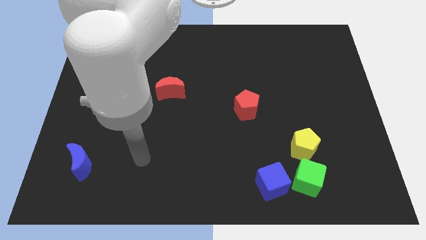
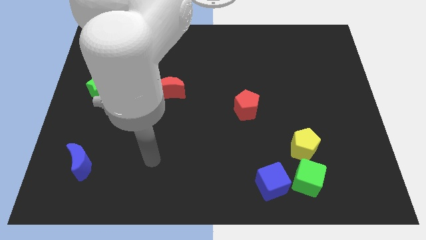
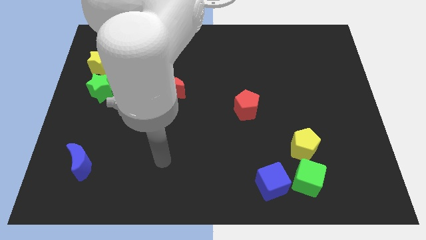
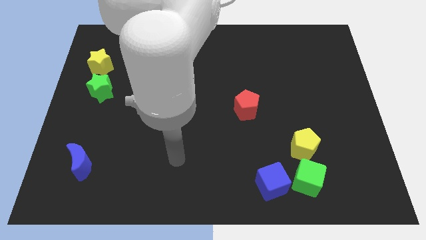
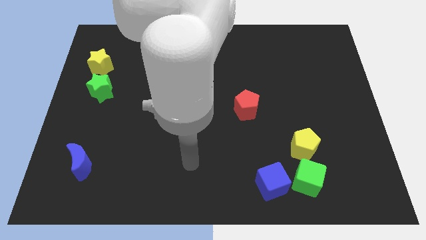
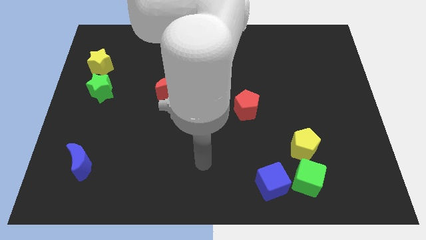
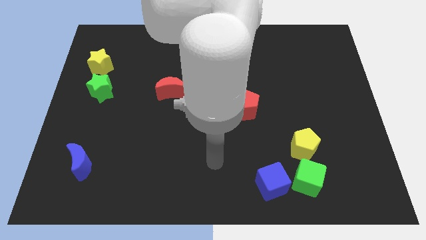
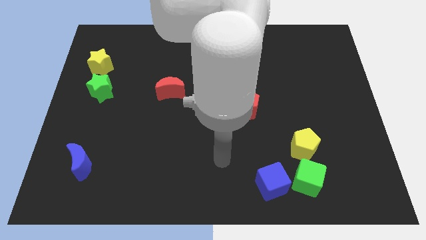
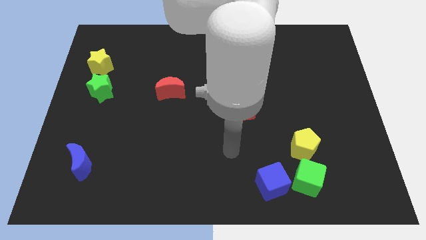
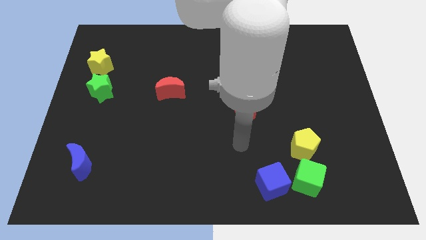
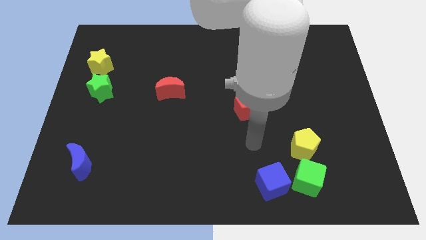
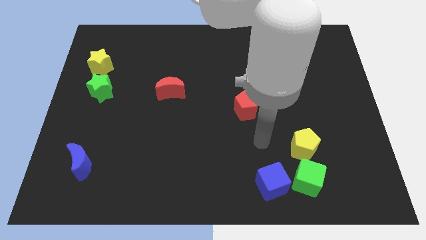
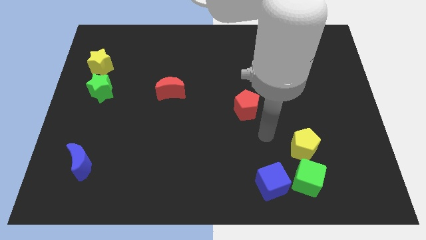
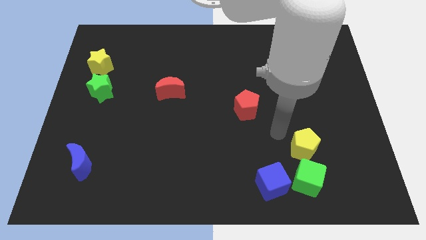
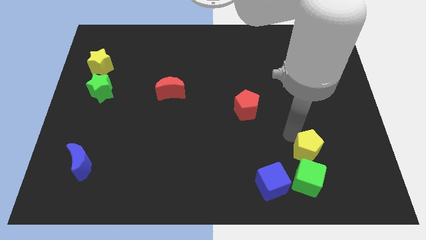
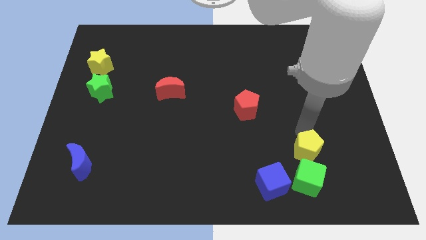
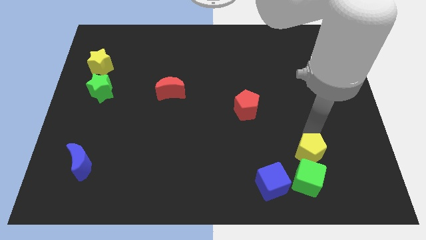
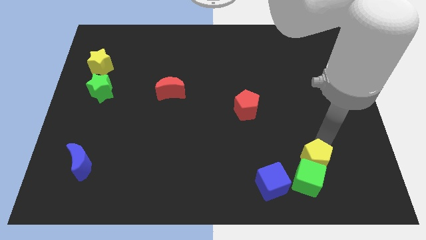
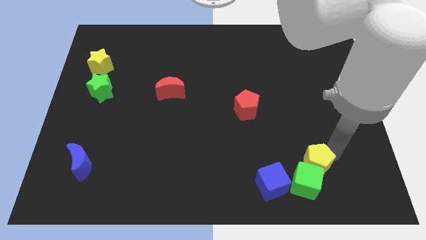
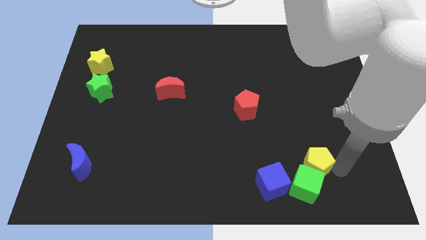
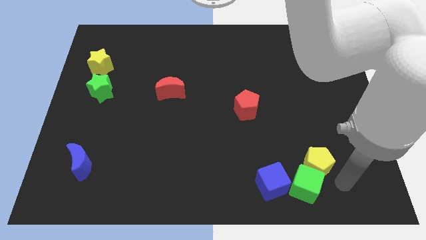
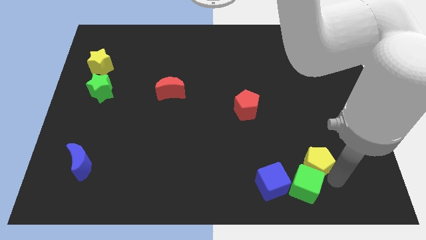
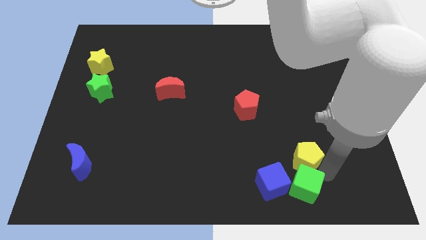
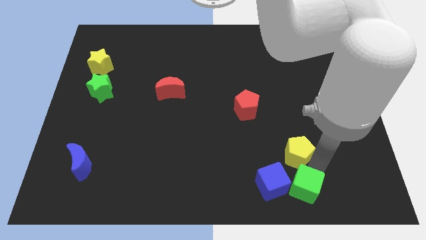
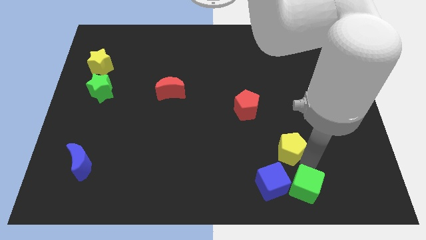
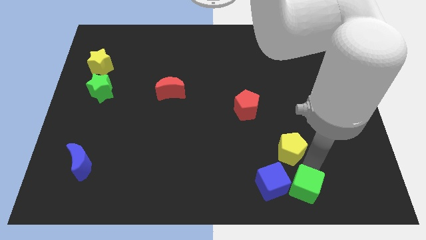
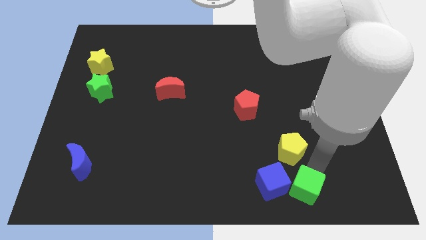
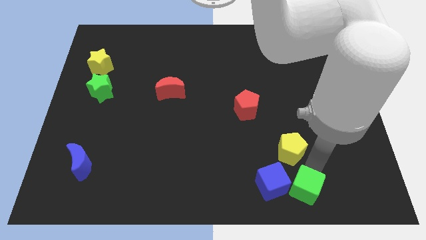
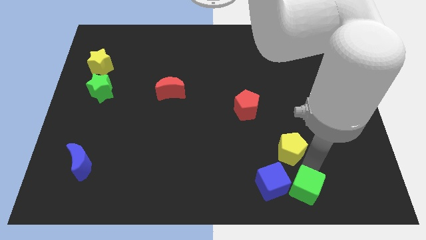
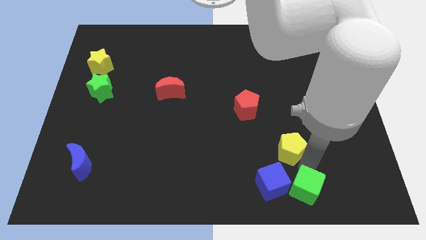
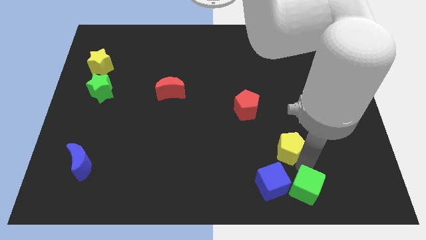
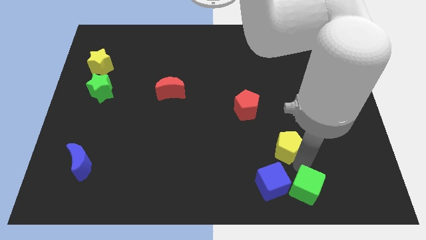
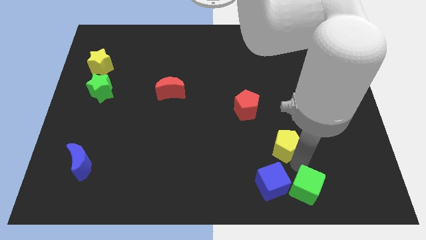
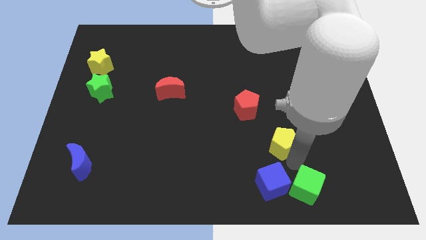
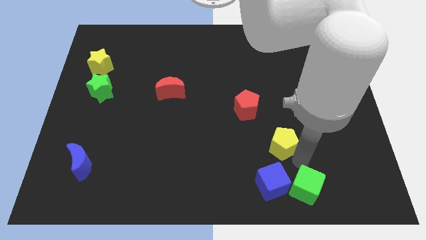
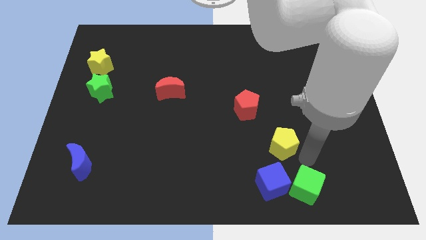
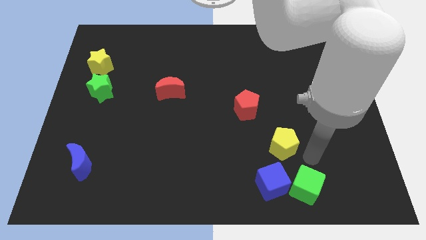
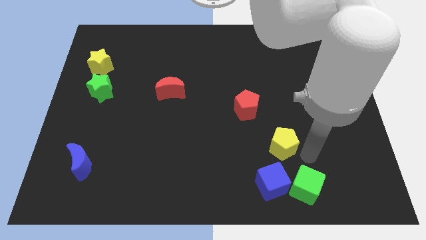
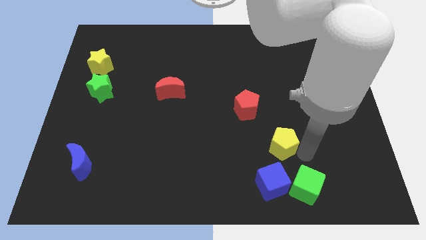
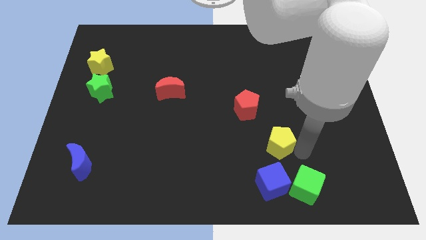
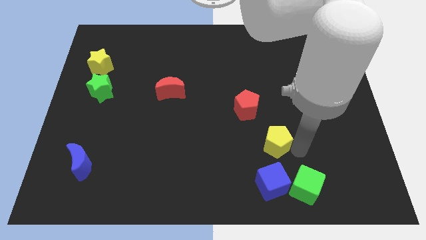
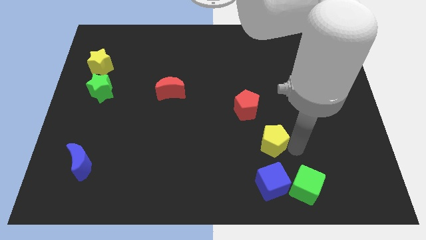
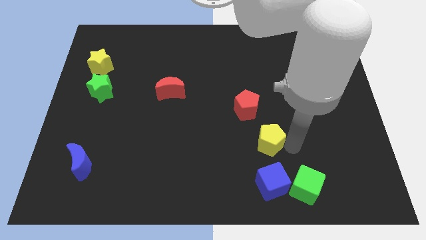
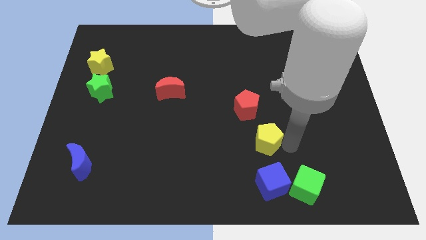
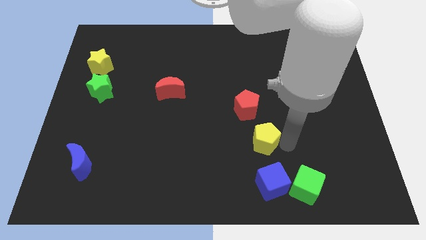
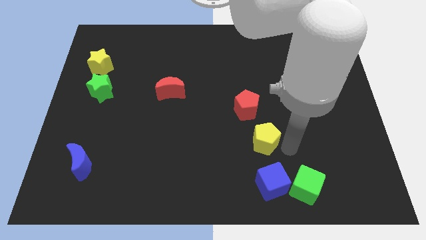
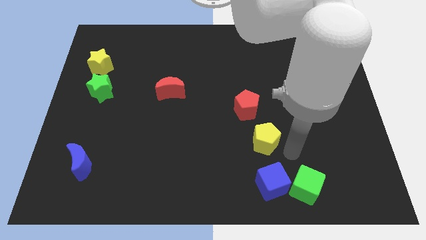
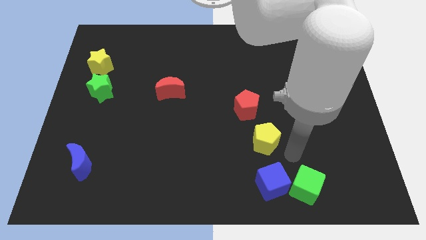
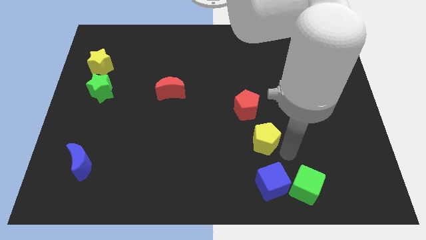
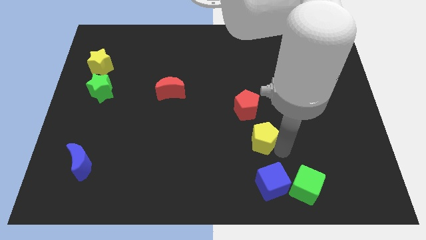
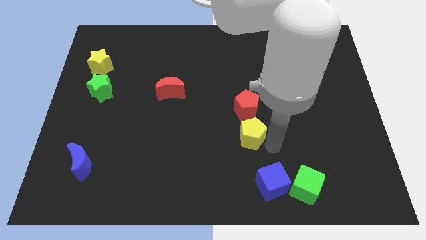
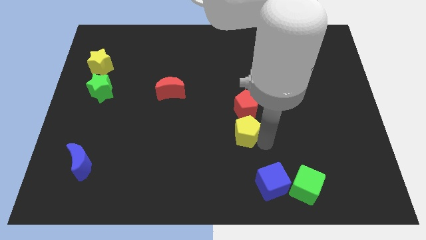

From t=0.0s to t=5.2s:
slide the yellow pentagon to the bottom left of the red pentagon

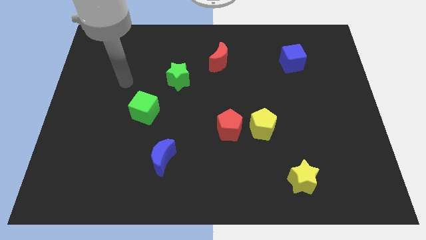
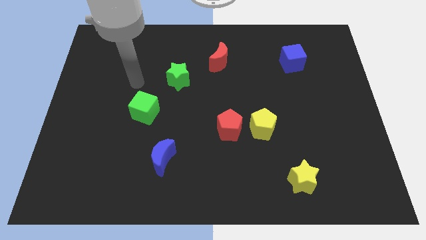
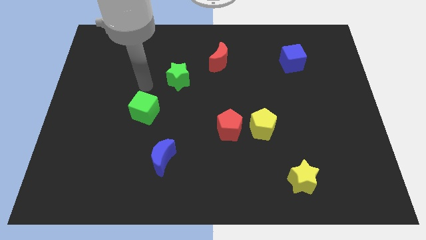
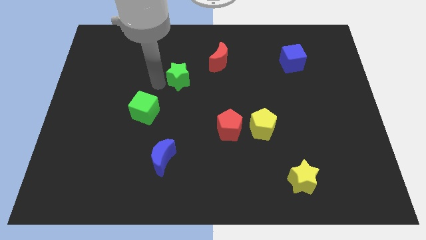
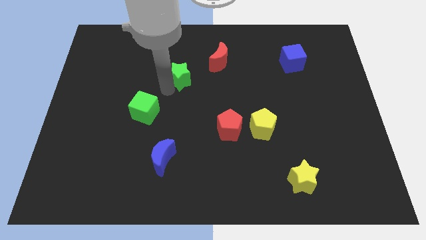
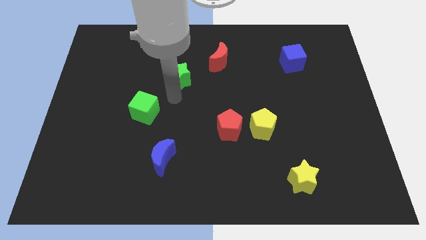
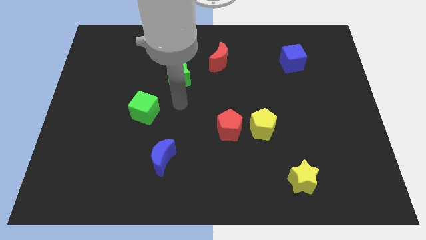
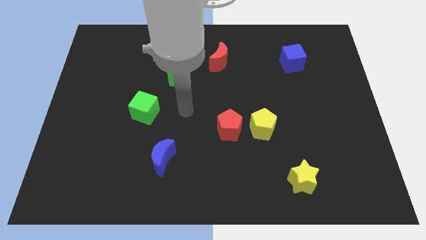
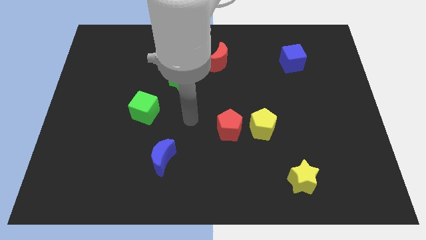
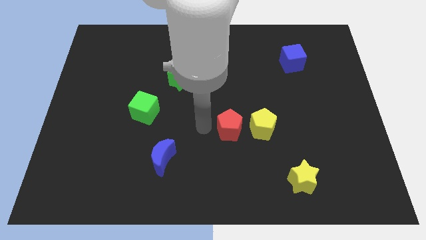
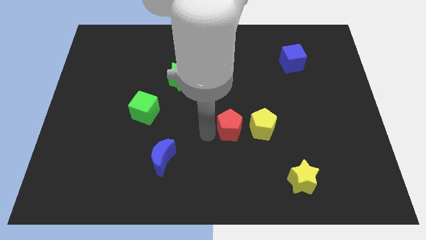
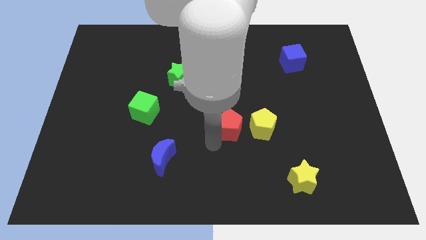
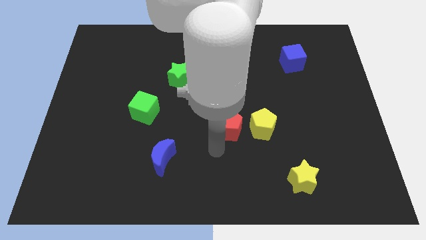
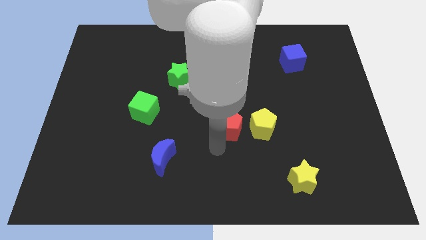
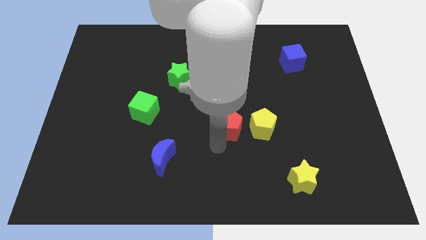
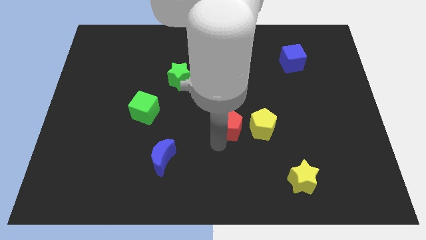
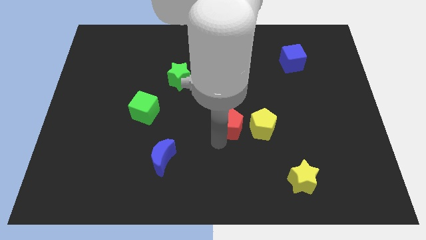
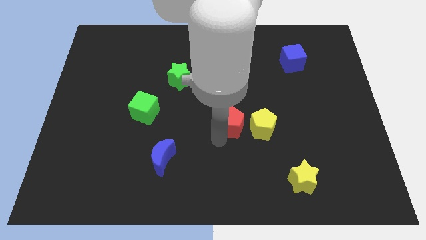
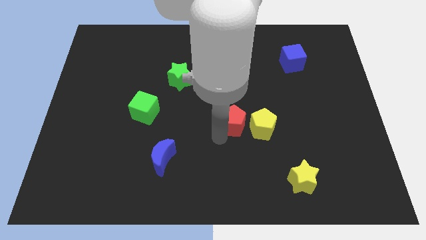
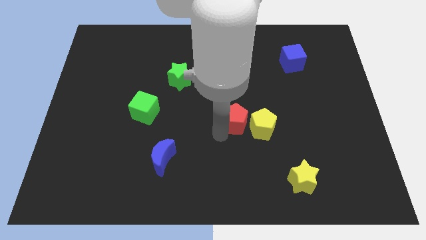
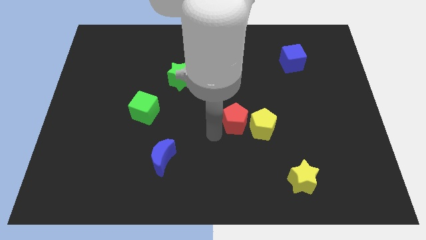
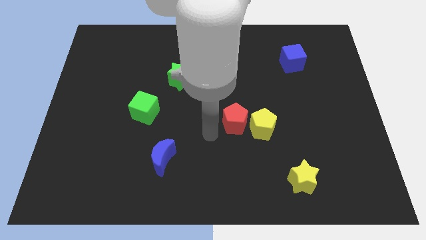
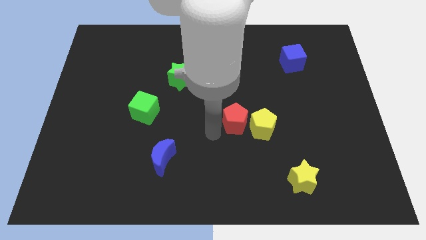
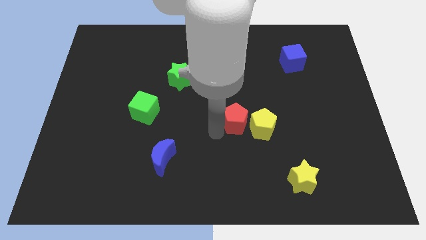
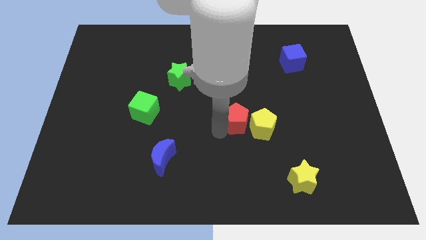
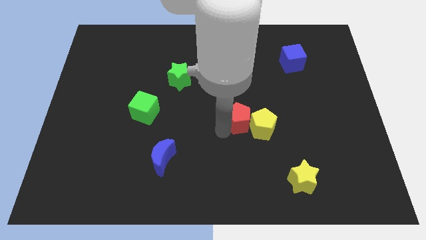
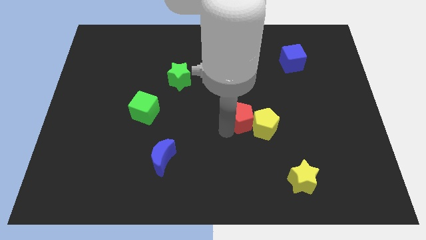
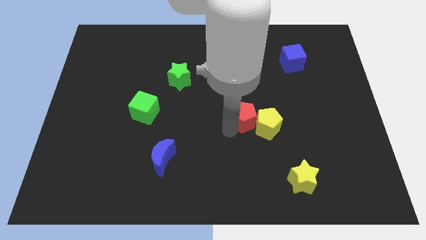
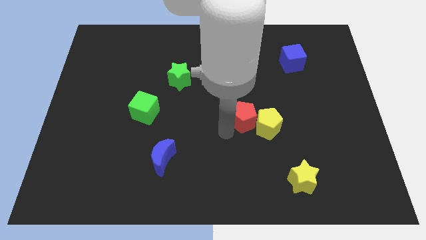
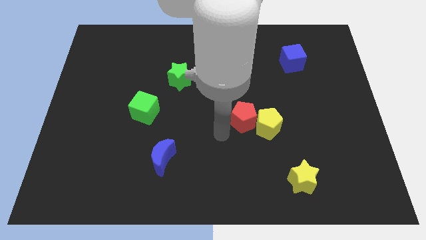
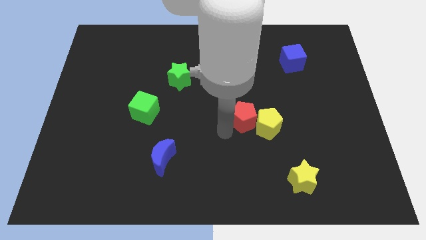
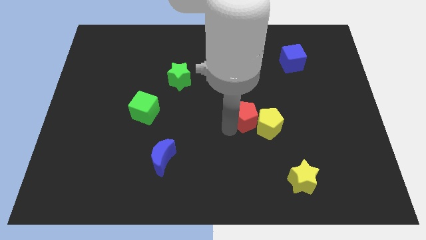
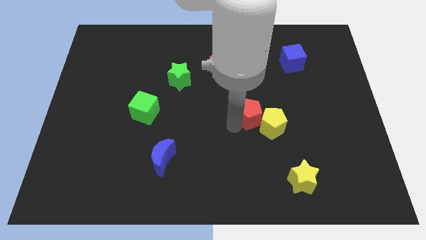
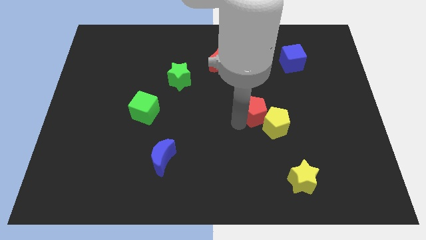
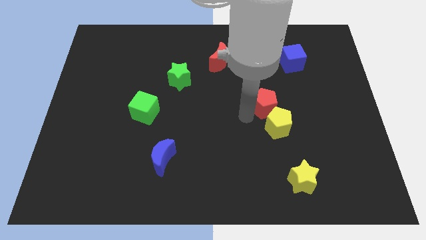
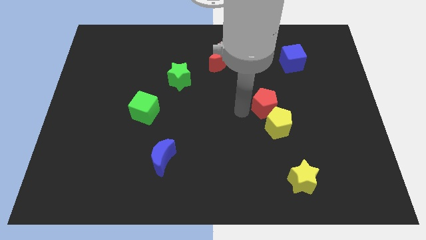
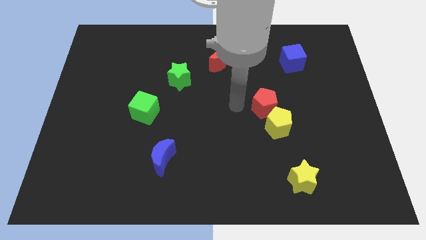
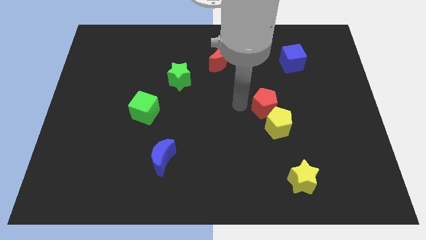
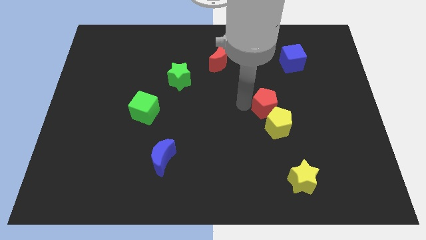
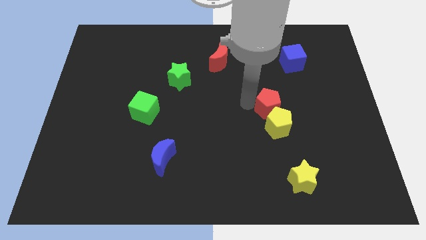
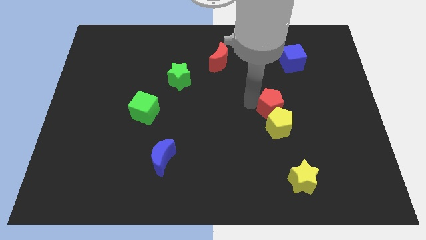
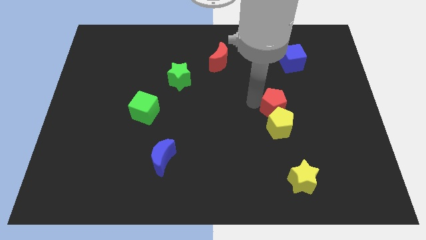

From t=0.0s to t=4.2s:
slide the red pentagon to the top right of the yellow pentagon
